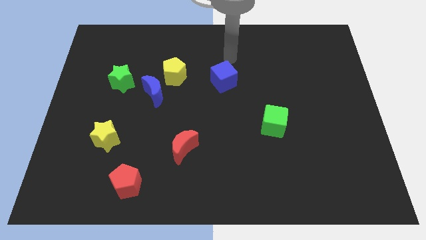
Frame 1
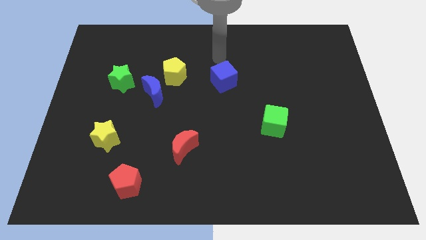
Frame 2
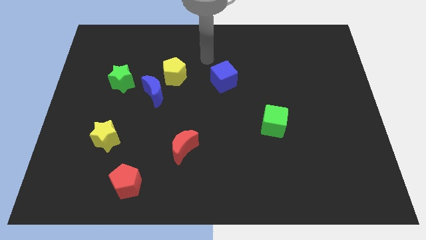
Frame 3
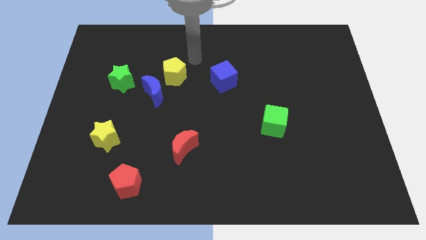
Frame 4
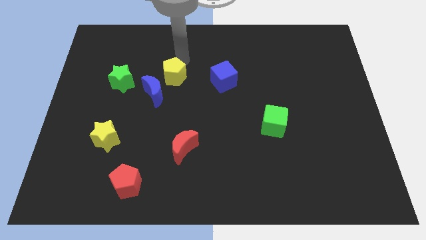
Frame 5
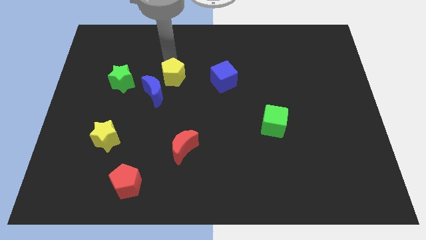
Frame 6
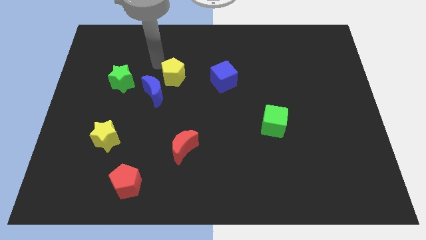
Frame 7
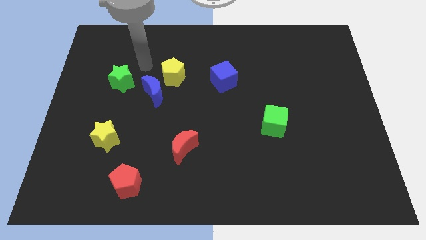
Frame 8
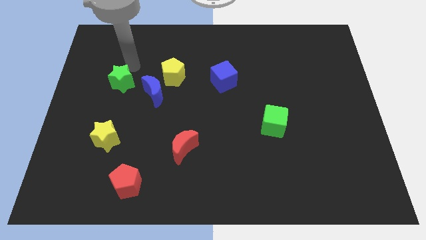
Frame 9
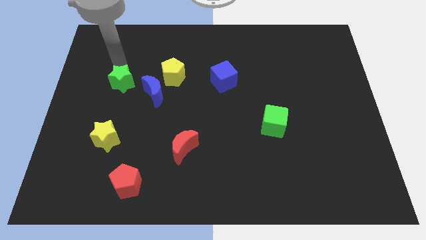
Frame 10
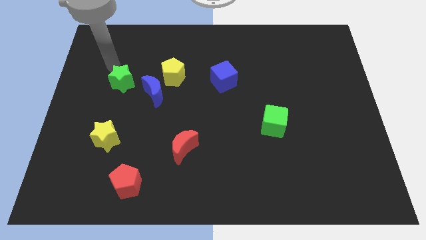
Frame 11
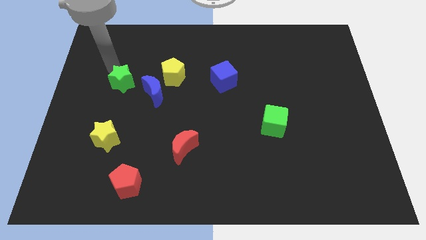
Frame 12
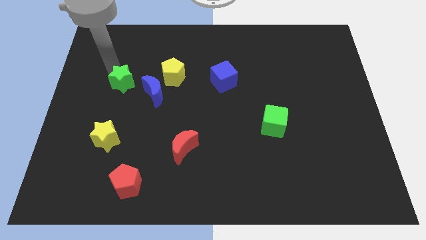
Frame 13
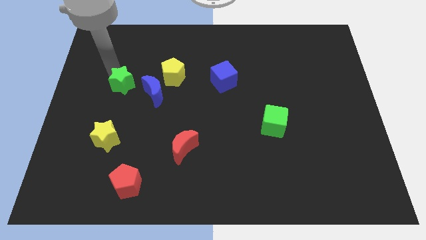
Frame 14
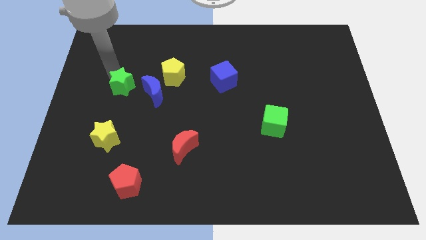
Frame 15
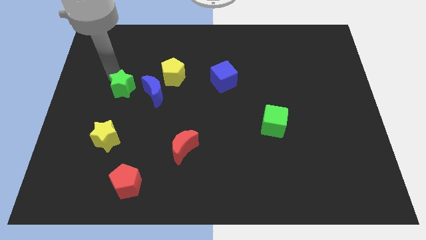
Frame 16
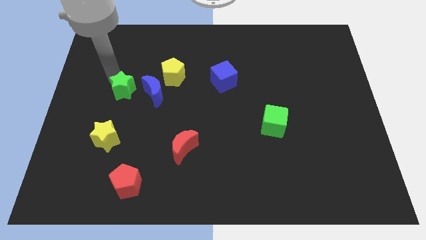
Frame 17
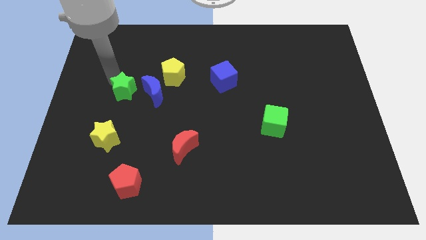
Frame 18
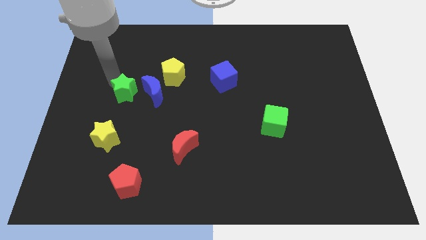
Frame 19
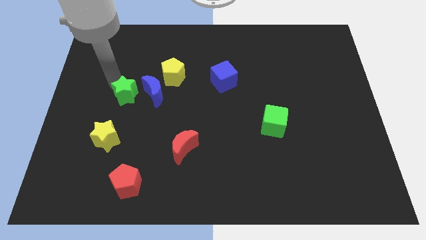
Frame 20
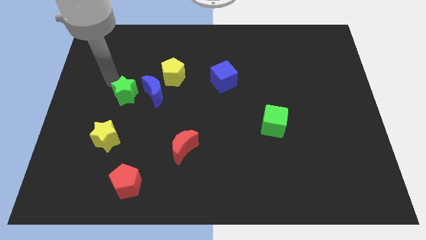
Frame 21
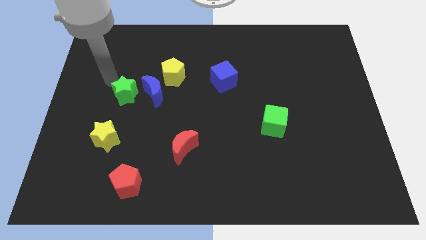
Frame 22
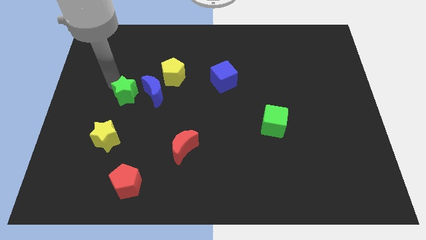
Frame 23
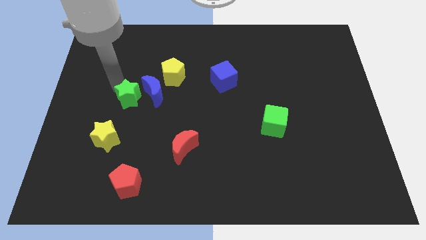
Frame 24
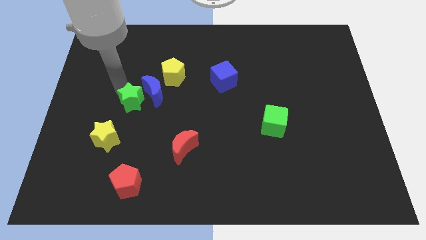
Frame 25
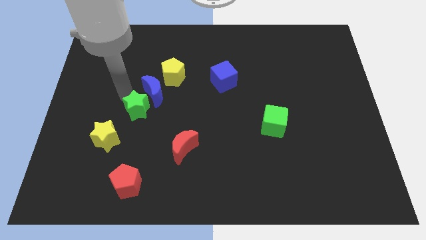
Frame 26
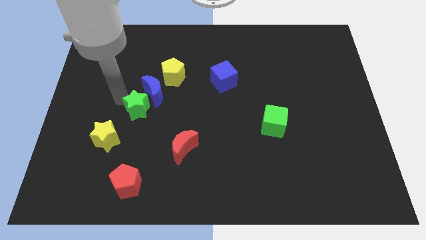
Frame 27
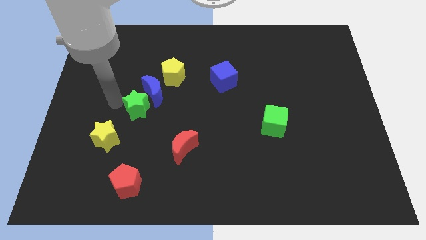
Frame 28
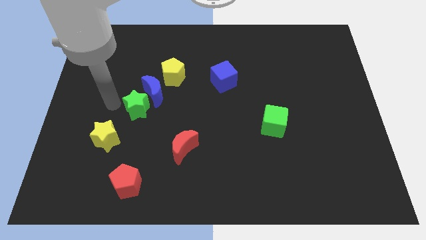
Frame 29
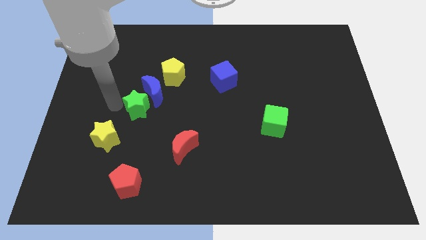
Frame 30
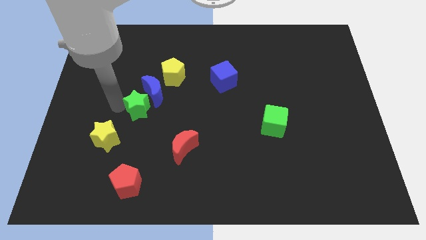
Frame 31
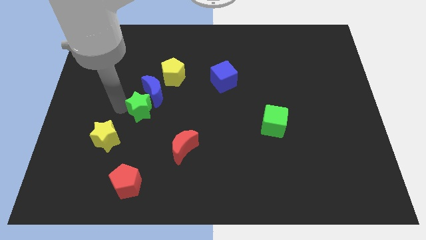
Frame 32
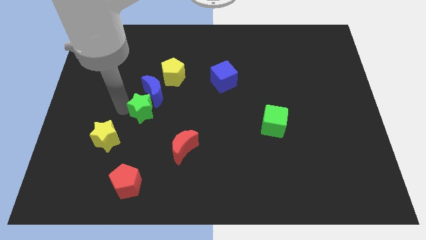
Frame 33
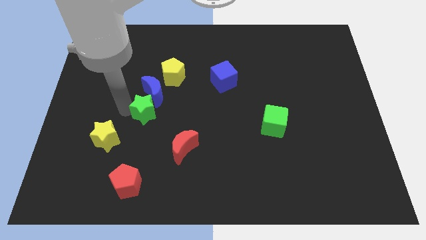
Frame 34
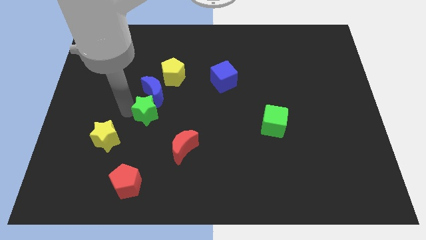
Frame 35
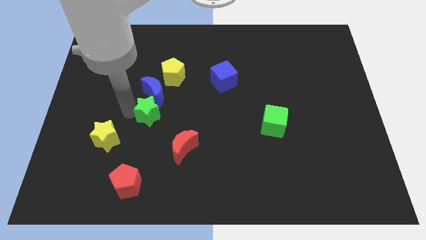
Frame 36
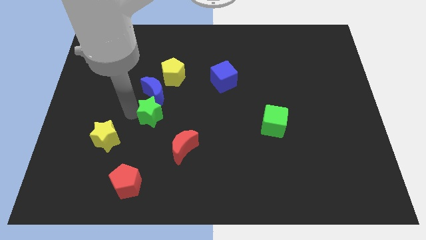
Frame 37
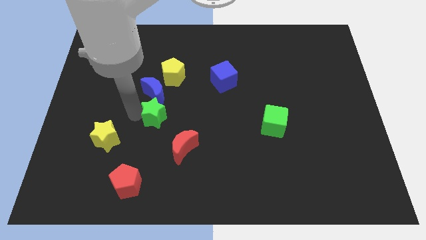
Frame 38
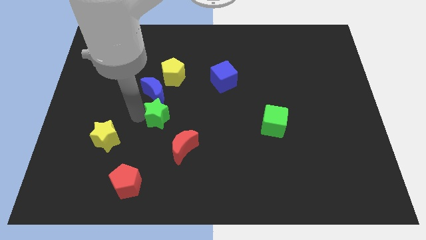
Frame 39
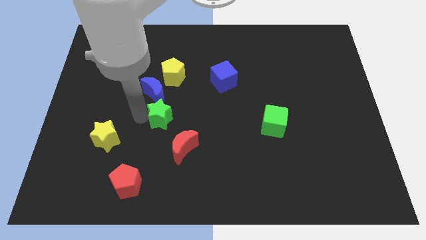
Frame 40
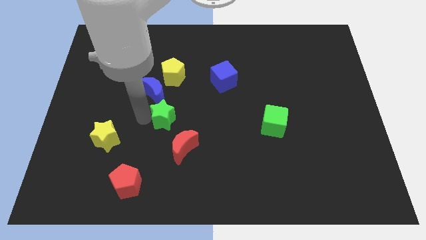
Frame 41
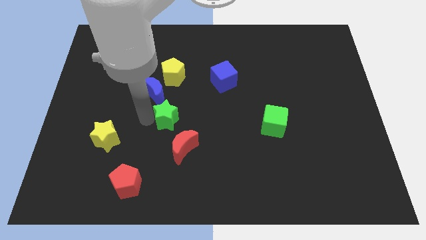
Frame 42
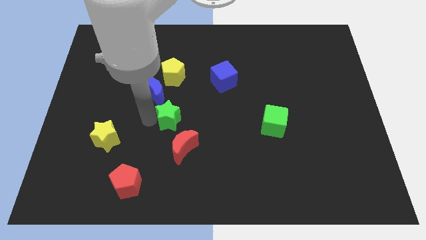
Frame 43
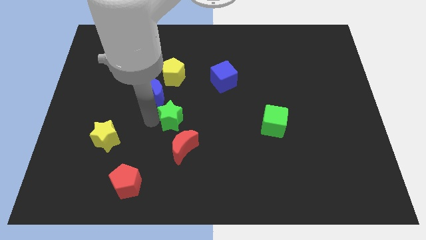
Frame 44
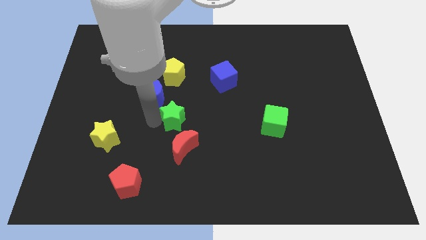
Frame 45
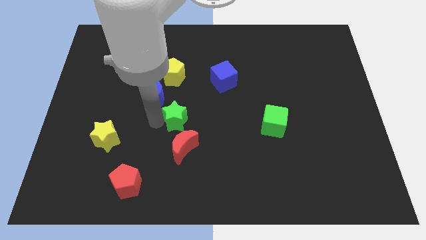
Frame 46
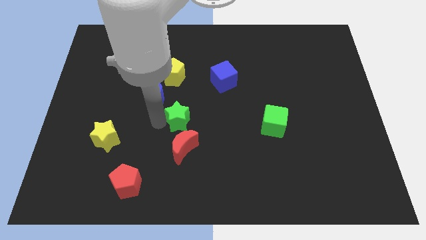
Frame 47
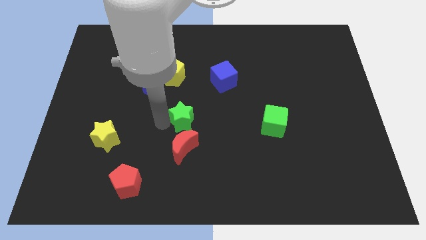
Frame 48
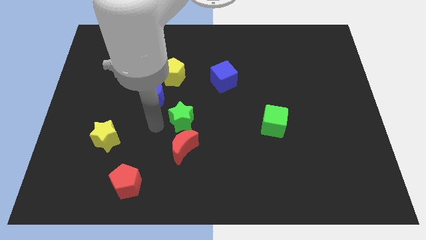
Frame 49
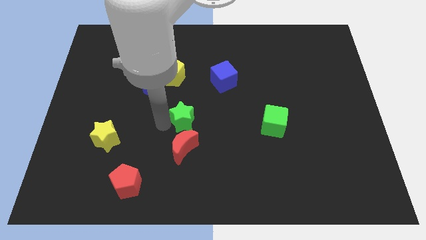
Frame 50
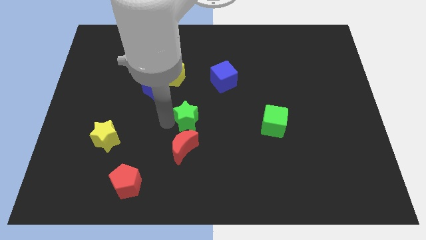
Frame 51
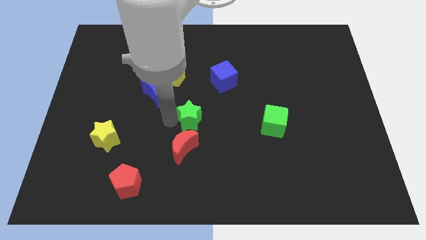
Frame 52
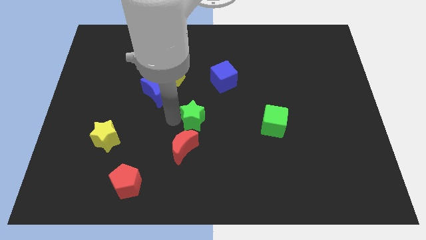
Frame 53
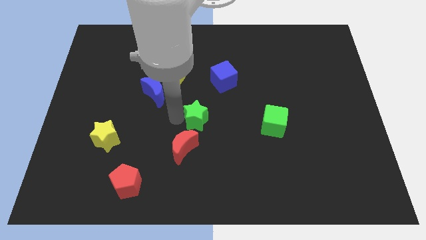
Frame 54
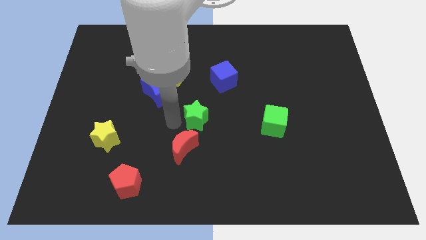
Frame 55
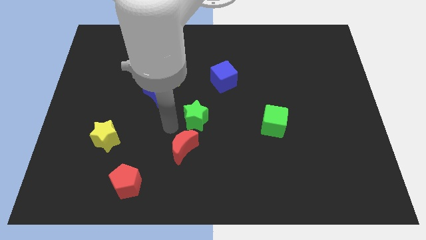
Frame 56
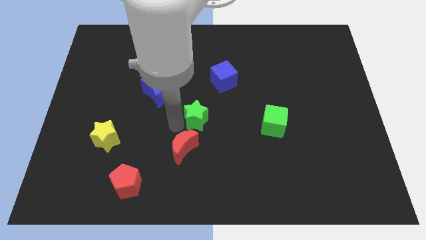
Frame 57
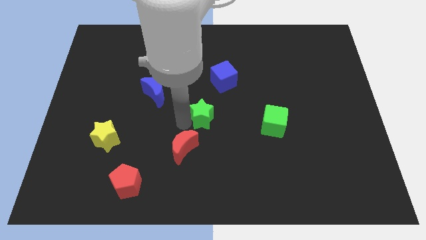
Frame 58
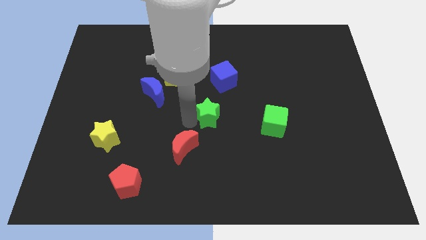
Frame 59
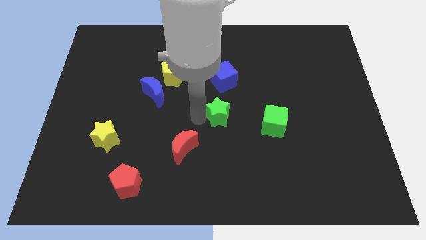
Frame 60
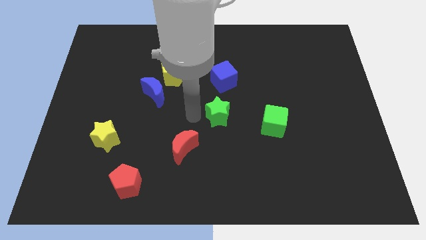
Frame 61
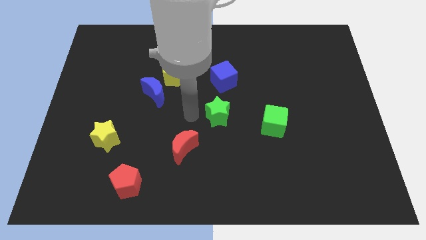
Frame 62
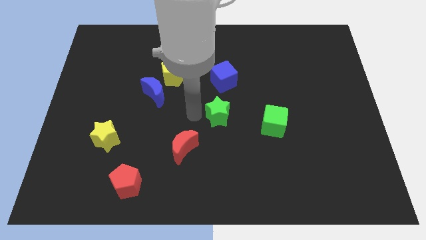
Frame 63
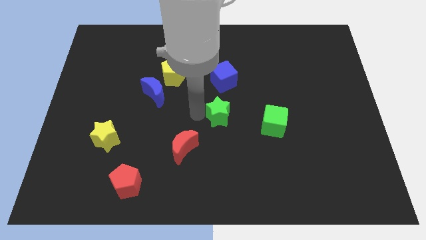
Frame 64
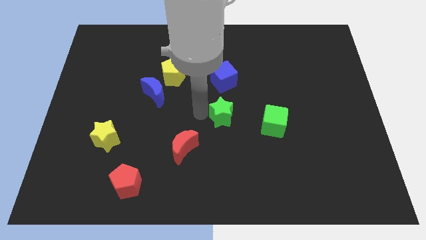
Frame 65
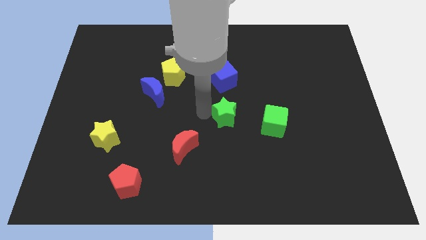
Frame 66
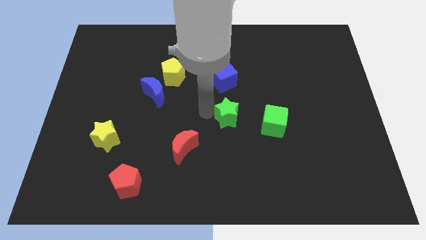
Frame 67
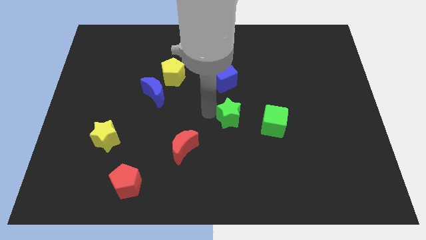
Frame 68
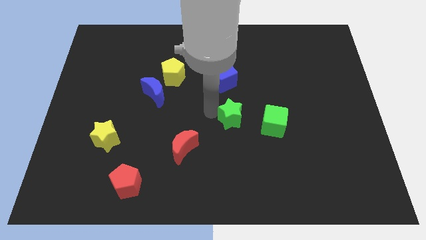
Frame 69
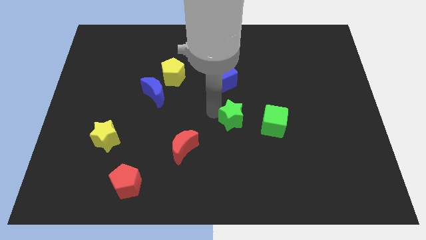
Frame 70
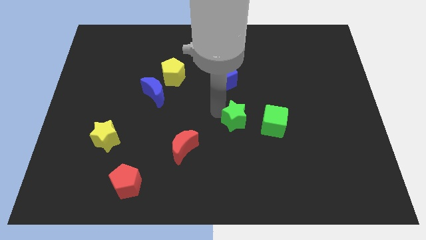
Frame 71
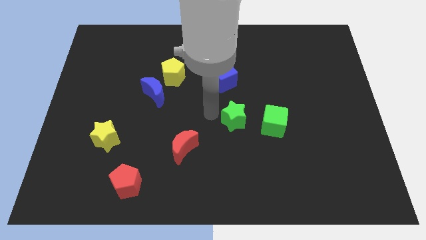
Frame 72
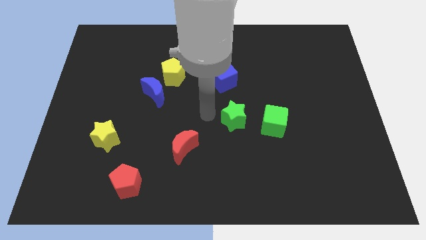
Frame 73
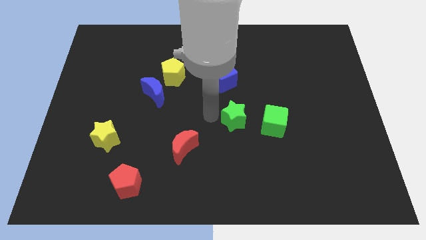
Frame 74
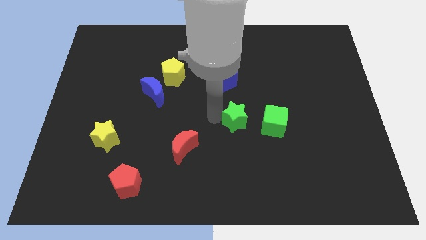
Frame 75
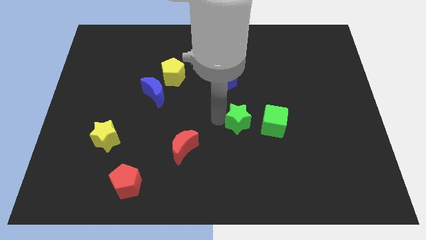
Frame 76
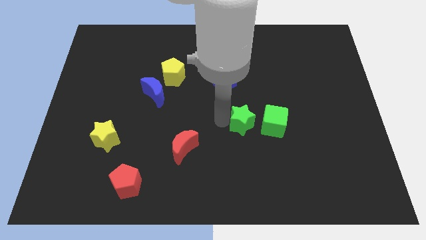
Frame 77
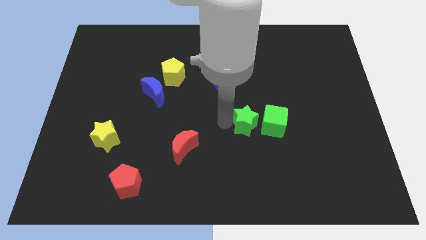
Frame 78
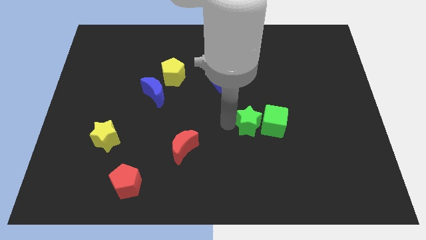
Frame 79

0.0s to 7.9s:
put the green star to the green cube
